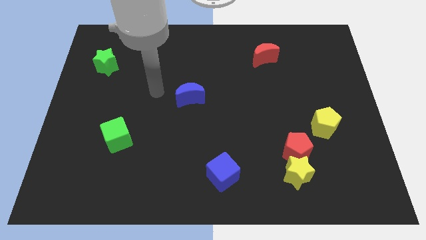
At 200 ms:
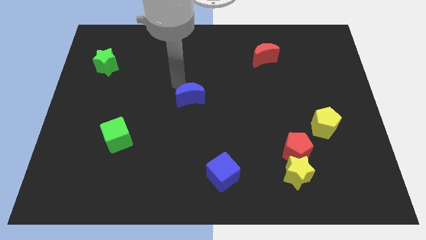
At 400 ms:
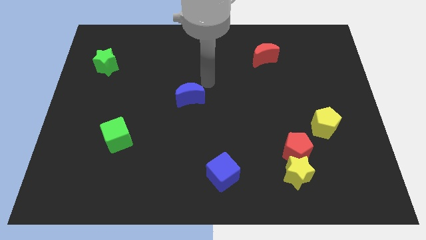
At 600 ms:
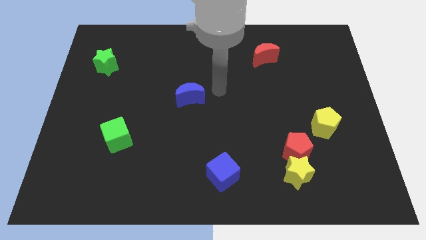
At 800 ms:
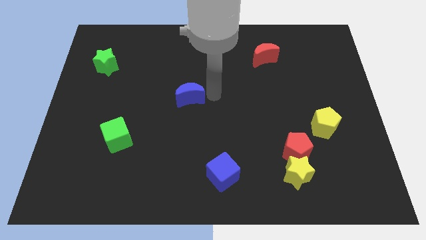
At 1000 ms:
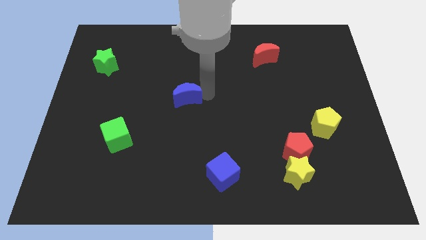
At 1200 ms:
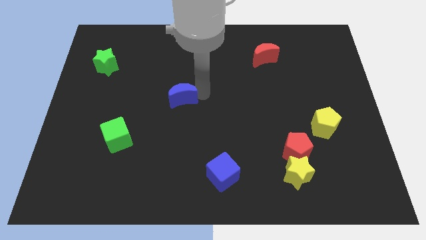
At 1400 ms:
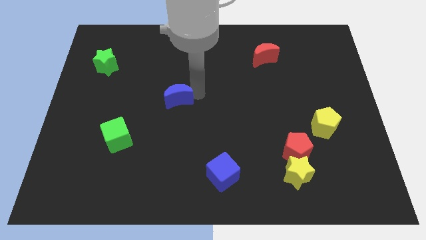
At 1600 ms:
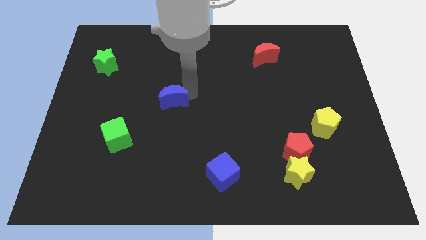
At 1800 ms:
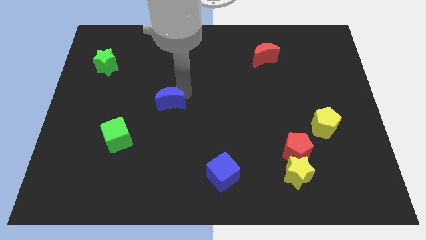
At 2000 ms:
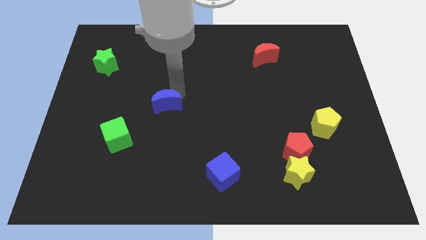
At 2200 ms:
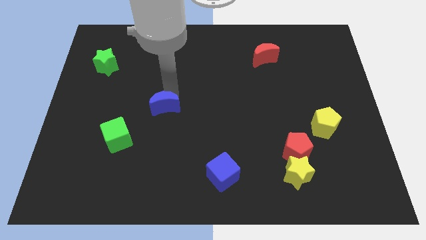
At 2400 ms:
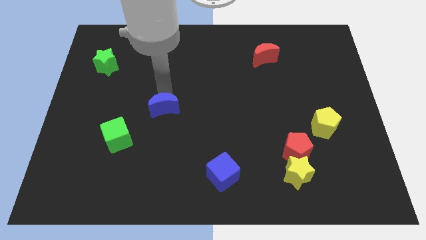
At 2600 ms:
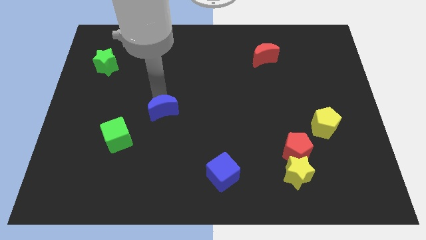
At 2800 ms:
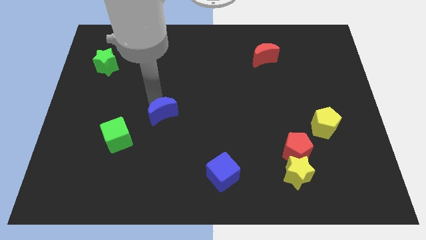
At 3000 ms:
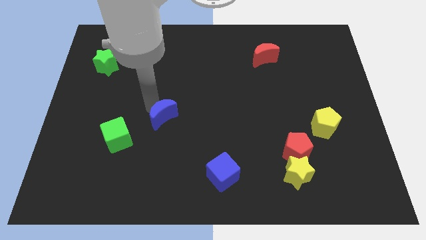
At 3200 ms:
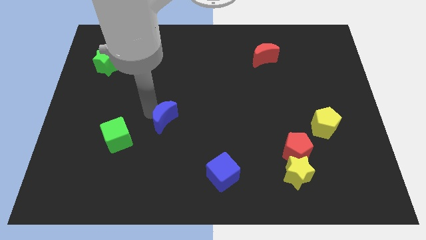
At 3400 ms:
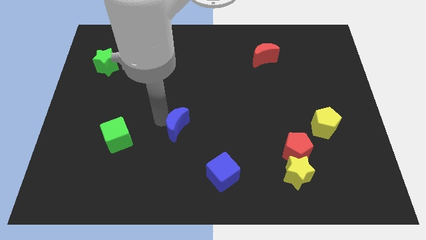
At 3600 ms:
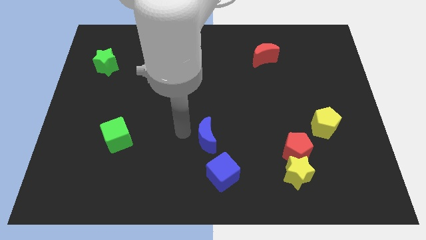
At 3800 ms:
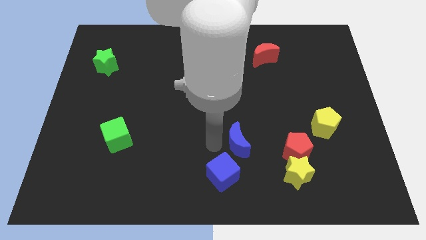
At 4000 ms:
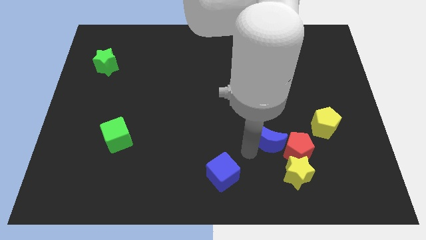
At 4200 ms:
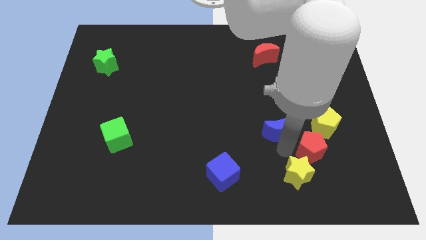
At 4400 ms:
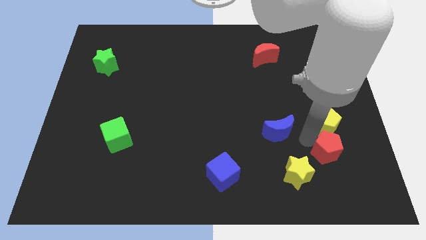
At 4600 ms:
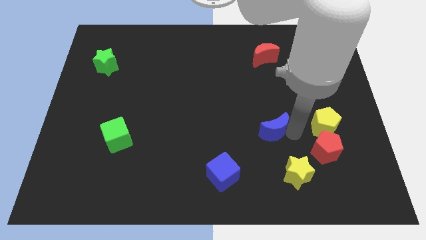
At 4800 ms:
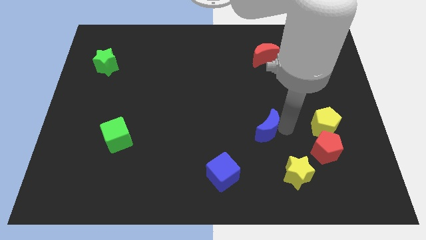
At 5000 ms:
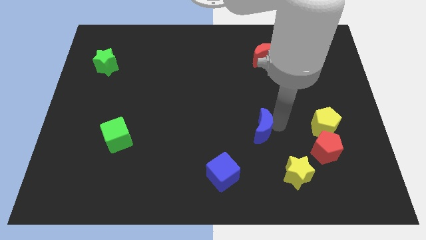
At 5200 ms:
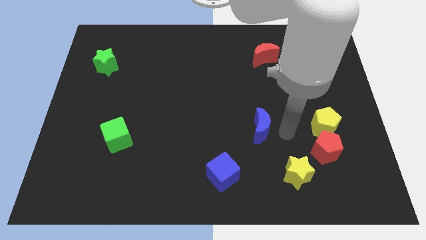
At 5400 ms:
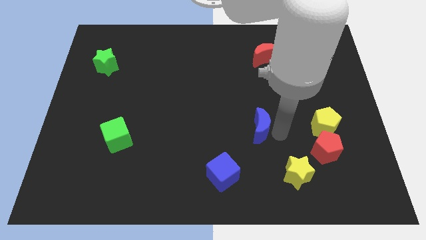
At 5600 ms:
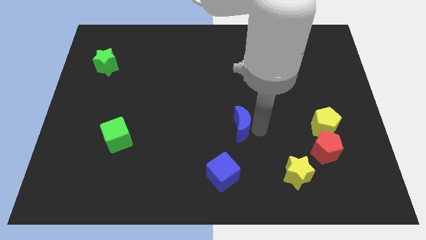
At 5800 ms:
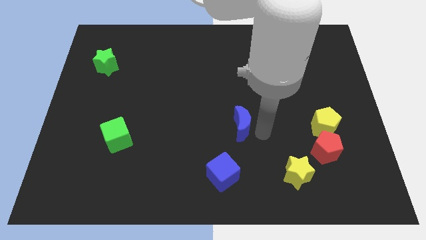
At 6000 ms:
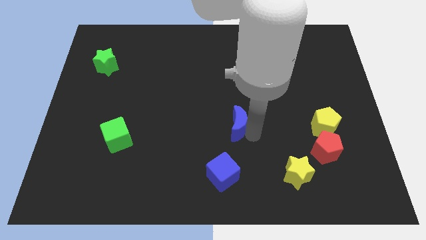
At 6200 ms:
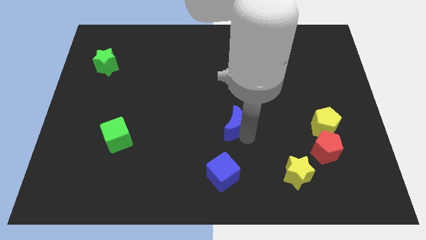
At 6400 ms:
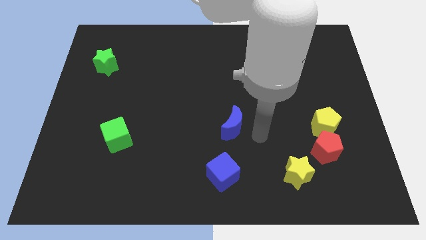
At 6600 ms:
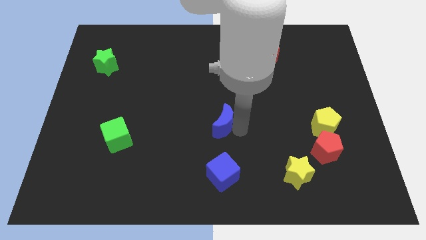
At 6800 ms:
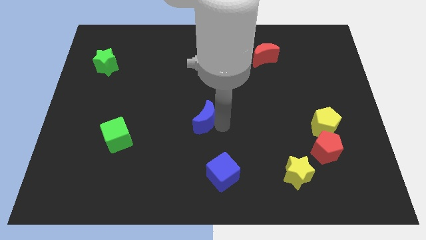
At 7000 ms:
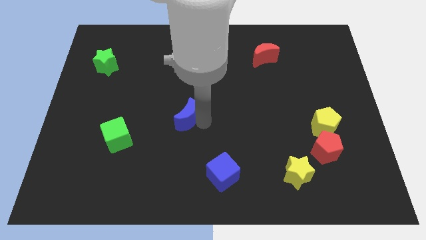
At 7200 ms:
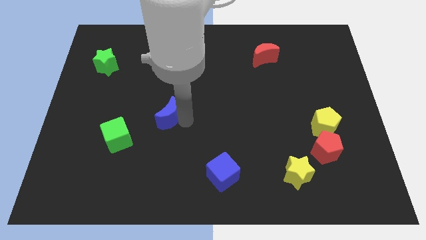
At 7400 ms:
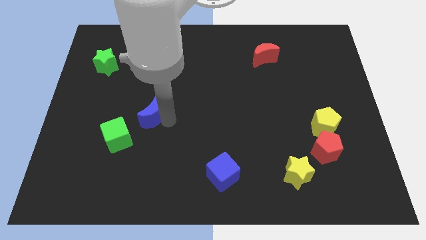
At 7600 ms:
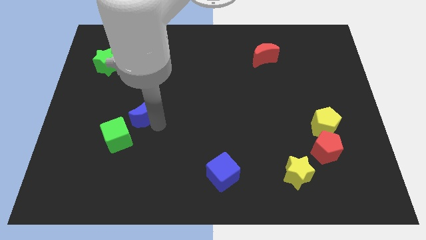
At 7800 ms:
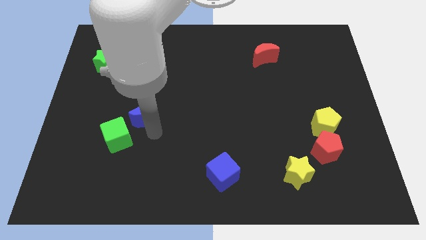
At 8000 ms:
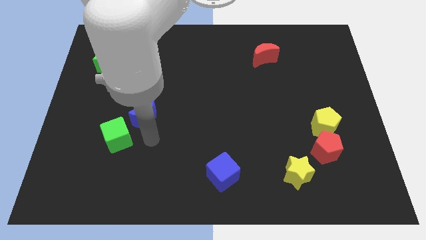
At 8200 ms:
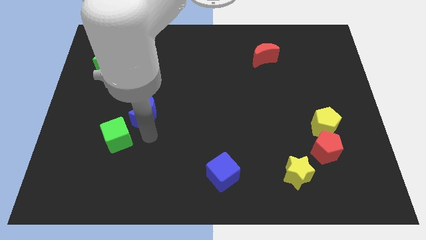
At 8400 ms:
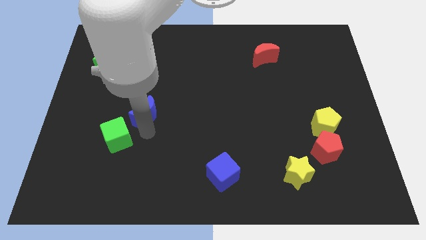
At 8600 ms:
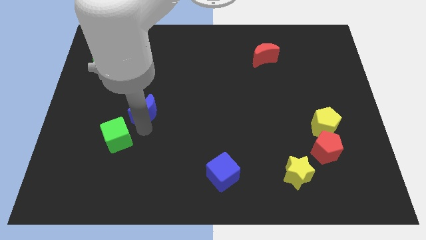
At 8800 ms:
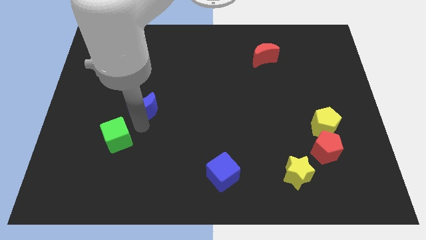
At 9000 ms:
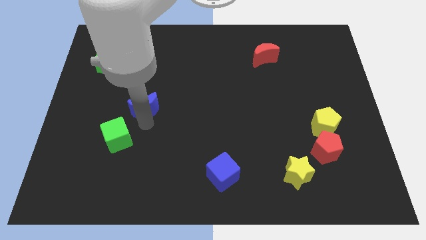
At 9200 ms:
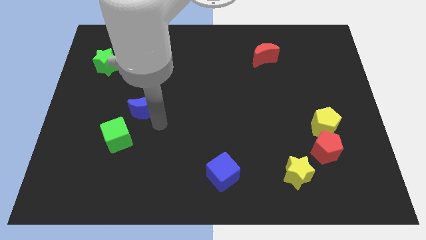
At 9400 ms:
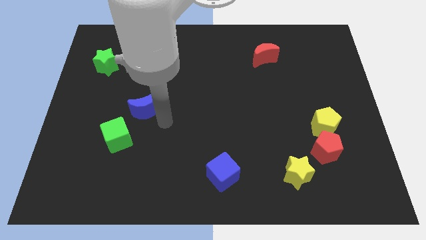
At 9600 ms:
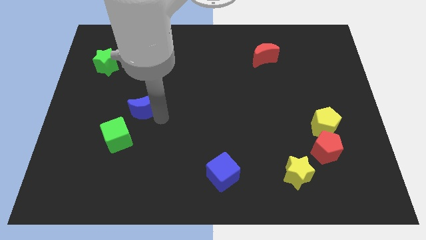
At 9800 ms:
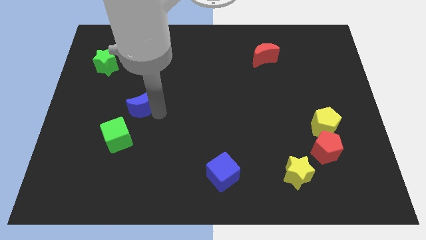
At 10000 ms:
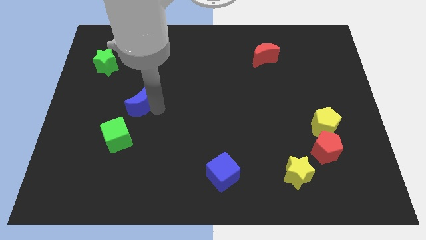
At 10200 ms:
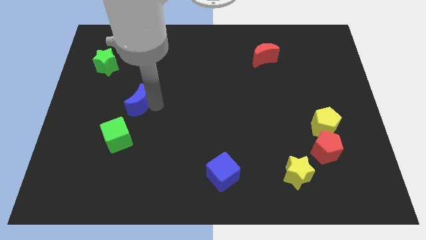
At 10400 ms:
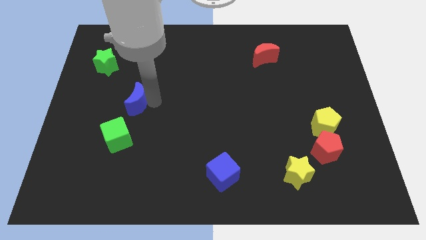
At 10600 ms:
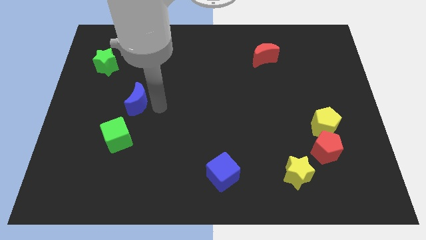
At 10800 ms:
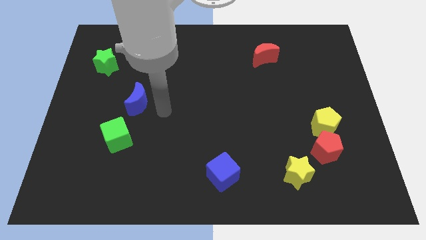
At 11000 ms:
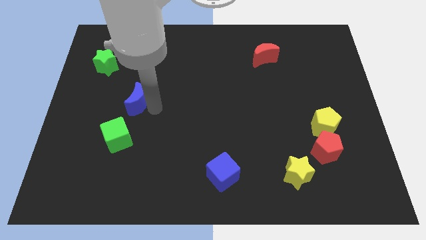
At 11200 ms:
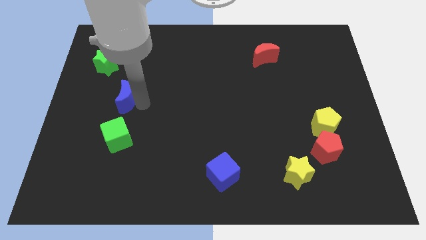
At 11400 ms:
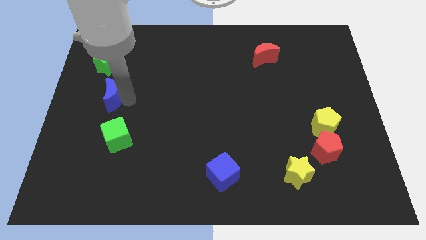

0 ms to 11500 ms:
put the blue moon below the green star

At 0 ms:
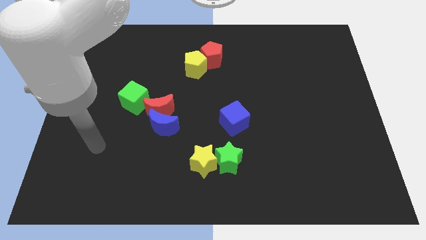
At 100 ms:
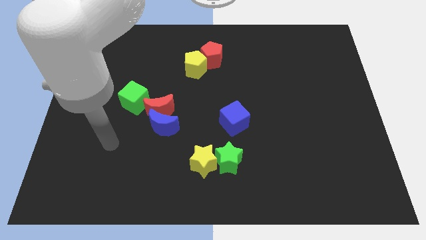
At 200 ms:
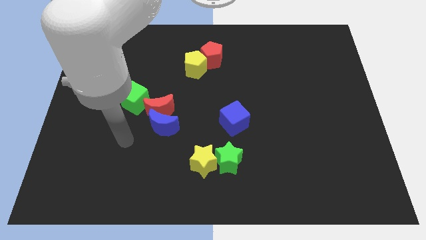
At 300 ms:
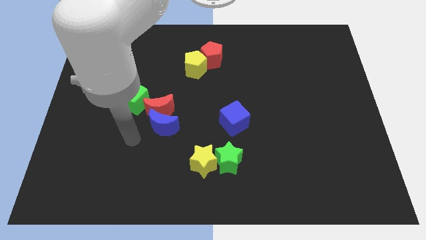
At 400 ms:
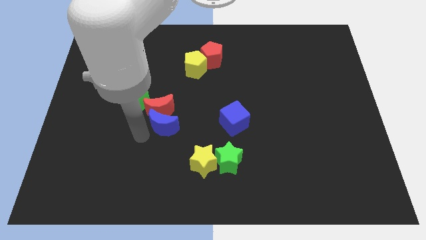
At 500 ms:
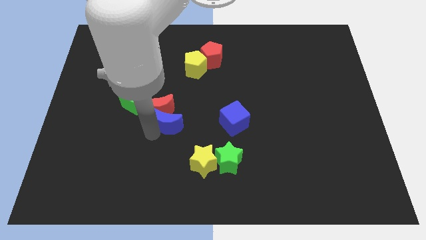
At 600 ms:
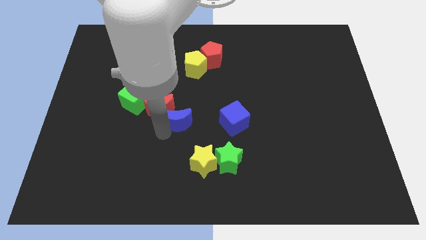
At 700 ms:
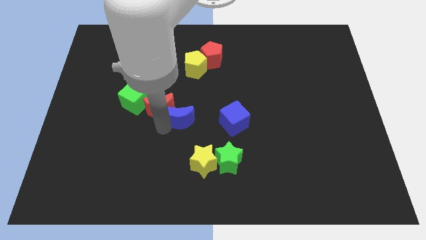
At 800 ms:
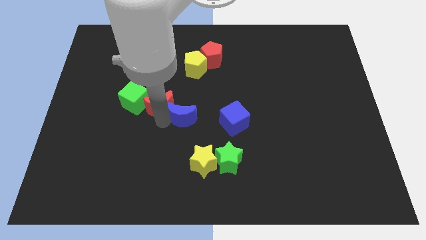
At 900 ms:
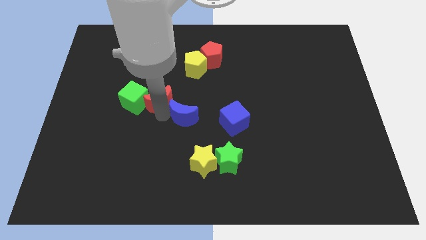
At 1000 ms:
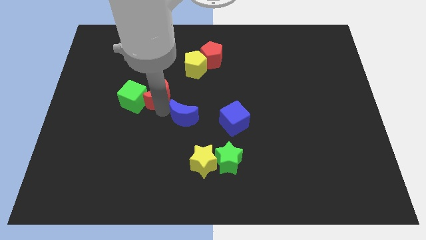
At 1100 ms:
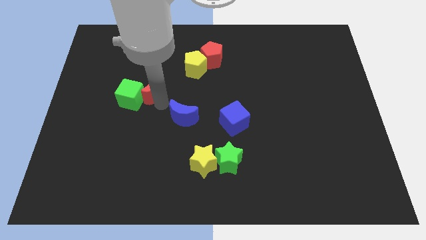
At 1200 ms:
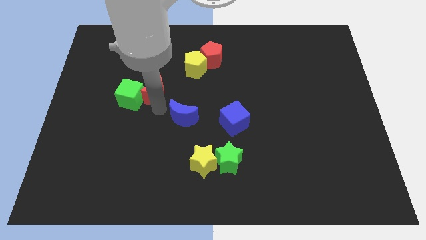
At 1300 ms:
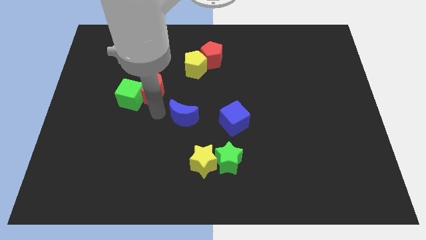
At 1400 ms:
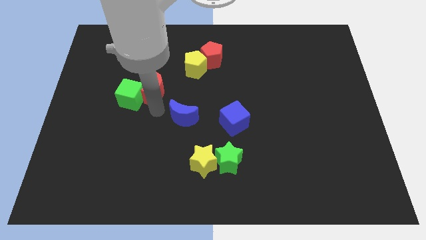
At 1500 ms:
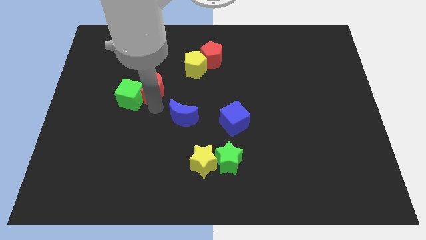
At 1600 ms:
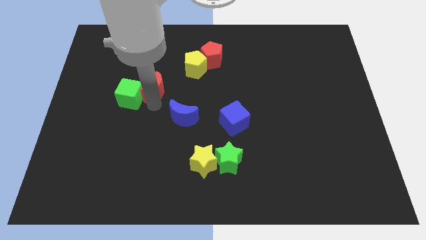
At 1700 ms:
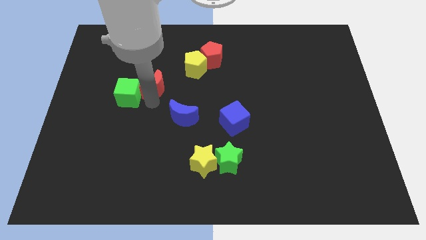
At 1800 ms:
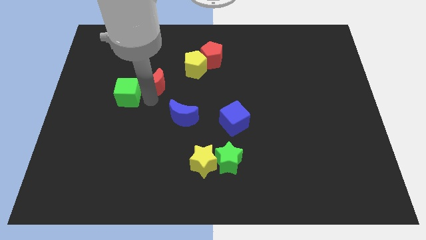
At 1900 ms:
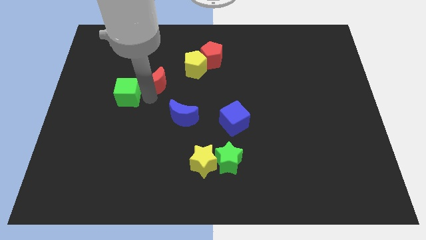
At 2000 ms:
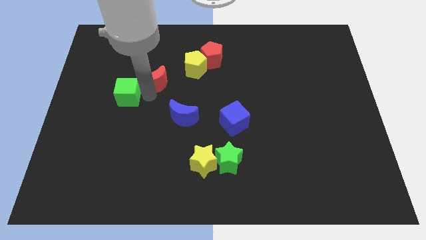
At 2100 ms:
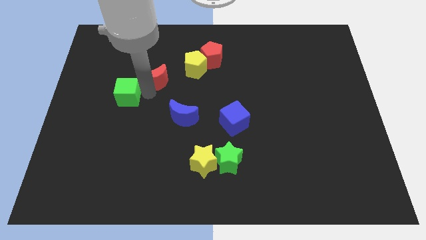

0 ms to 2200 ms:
push the red moon just left of the yellow pentagon

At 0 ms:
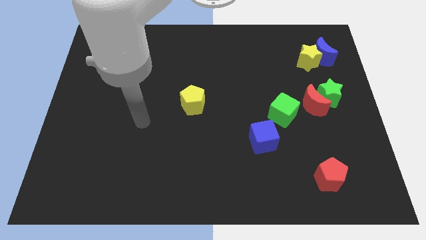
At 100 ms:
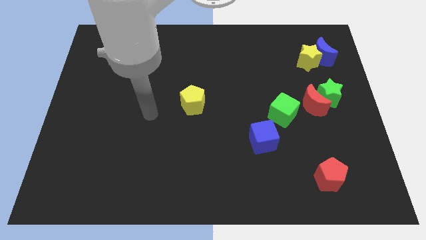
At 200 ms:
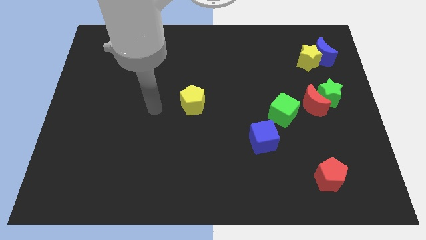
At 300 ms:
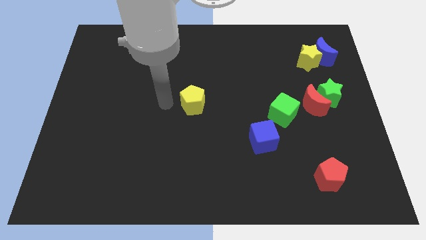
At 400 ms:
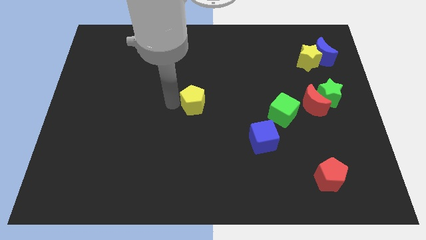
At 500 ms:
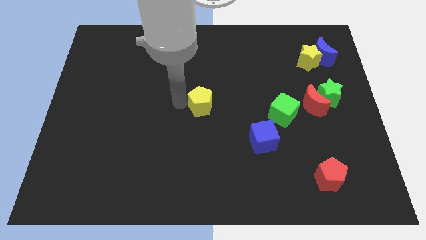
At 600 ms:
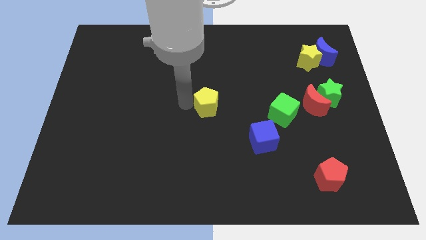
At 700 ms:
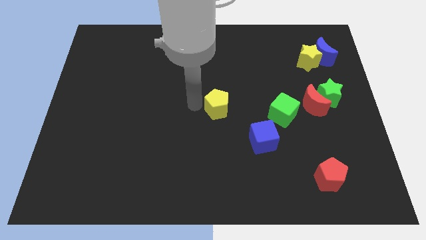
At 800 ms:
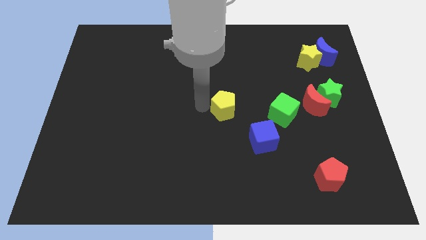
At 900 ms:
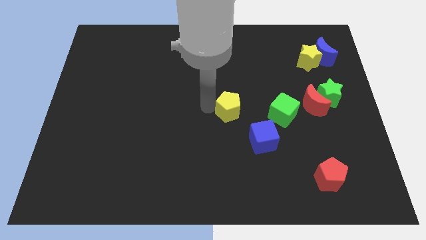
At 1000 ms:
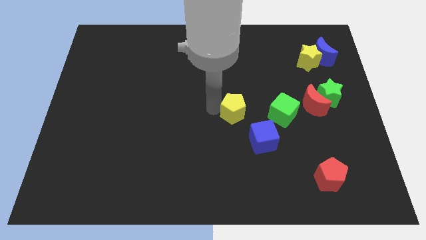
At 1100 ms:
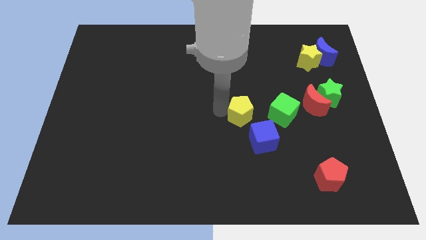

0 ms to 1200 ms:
slide the yellow pentagon to the top side of the blue cube
